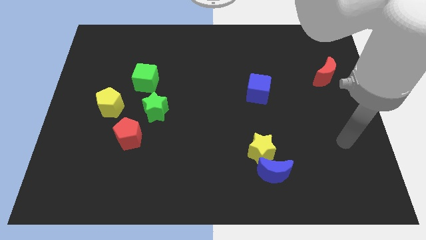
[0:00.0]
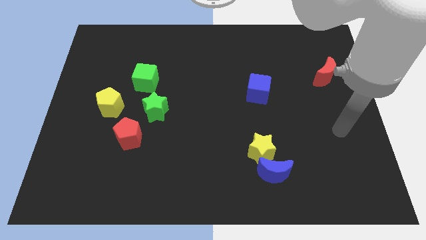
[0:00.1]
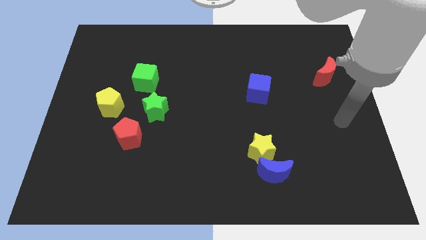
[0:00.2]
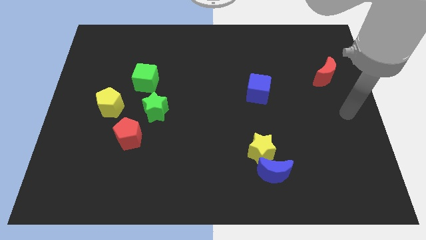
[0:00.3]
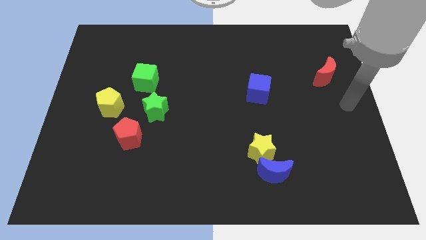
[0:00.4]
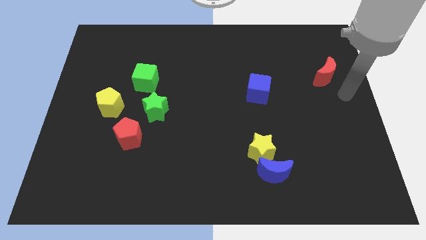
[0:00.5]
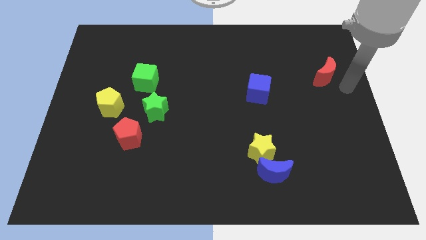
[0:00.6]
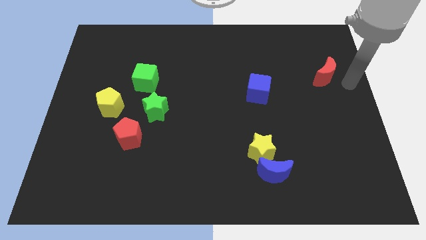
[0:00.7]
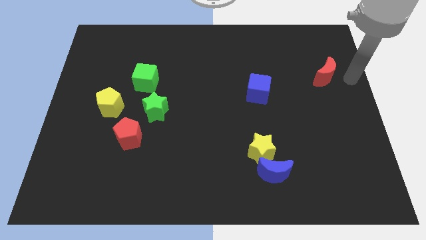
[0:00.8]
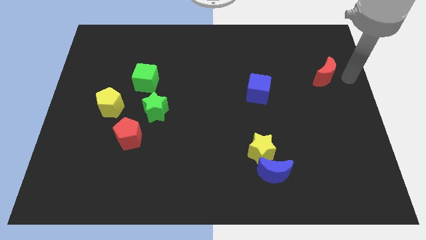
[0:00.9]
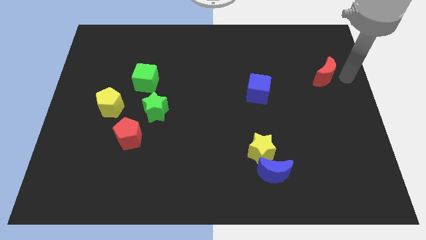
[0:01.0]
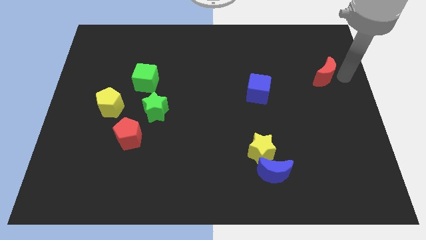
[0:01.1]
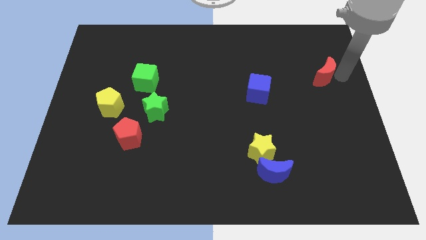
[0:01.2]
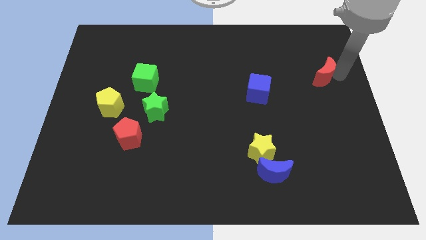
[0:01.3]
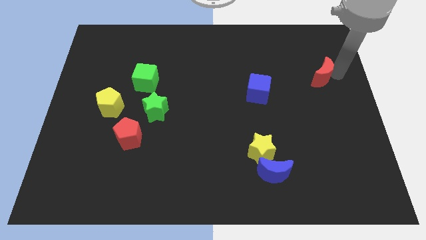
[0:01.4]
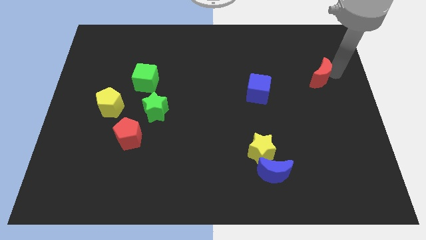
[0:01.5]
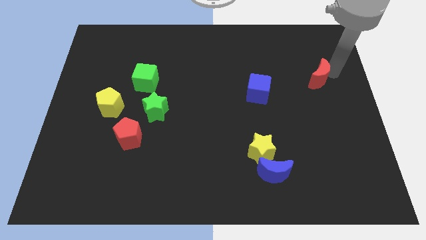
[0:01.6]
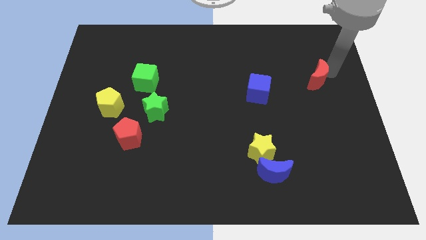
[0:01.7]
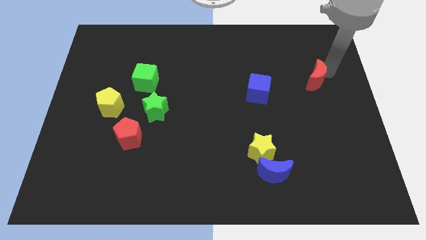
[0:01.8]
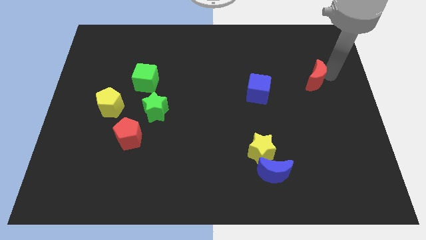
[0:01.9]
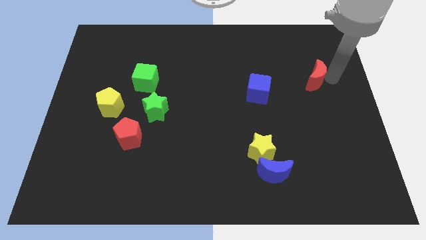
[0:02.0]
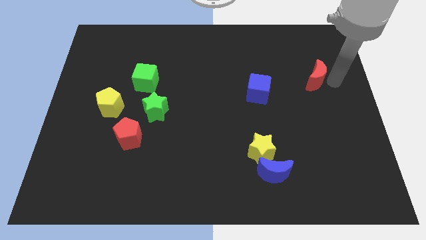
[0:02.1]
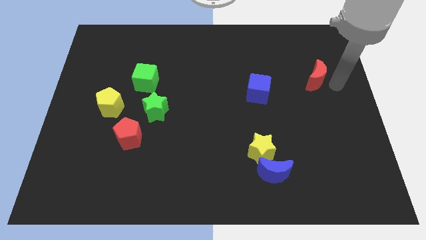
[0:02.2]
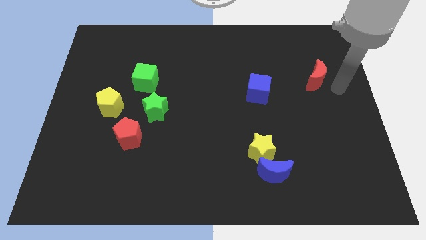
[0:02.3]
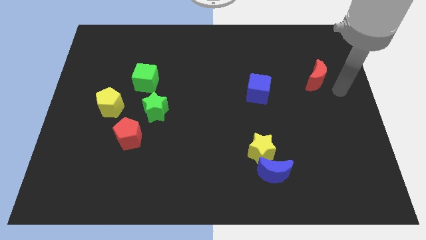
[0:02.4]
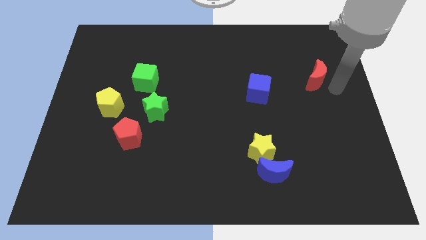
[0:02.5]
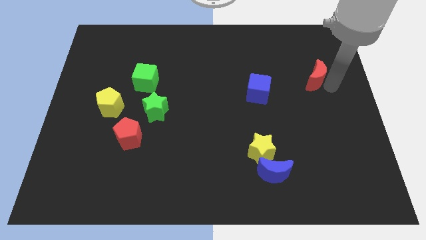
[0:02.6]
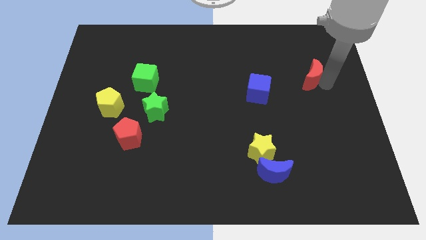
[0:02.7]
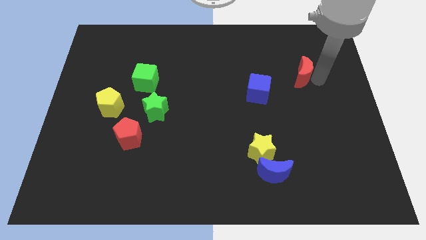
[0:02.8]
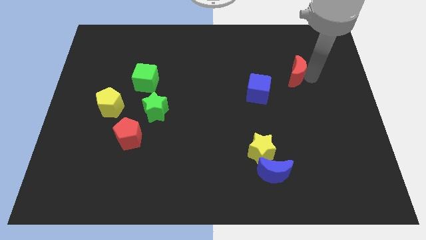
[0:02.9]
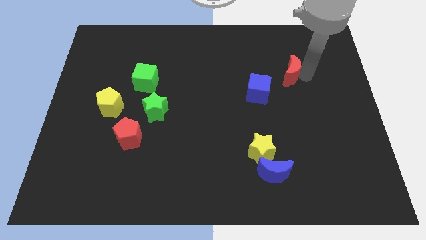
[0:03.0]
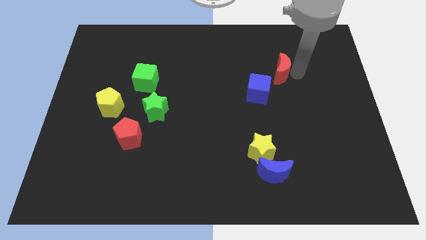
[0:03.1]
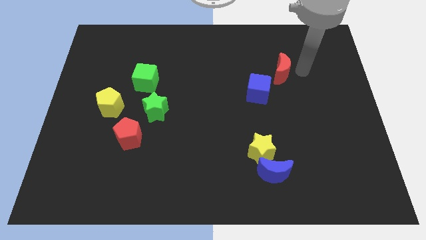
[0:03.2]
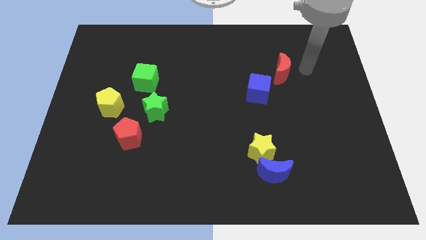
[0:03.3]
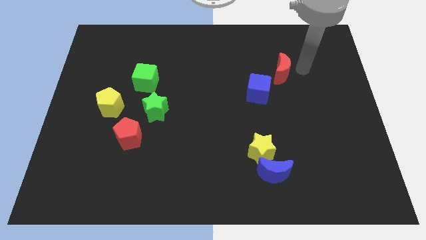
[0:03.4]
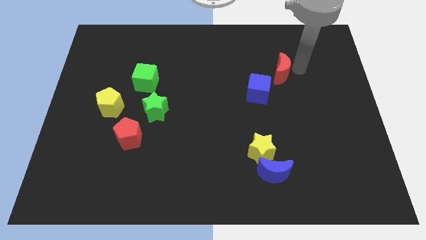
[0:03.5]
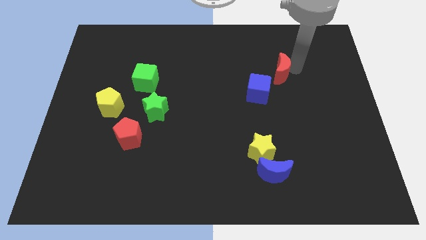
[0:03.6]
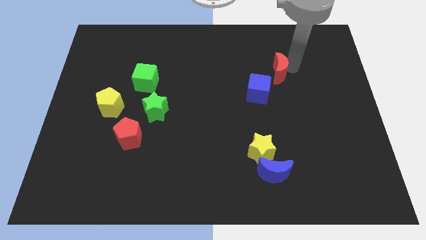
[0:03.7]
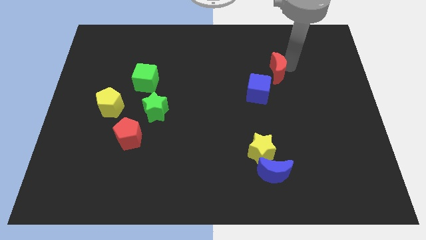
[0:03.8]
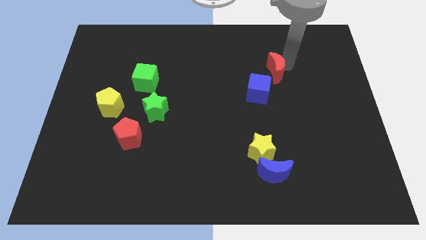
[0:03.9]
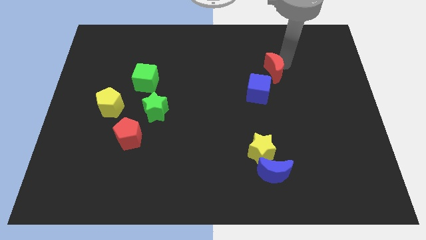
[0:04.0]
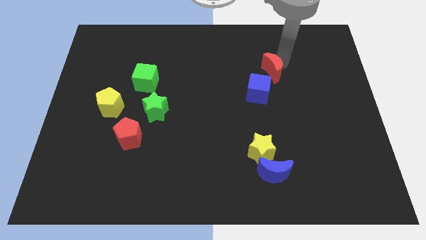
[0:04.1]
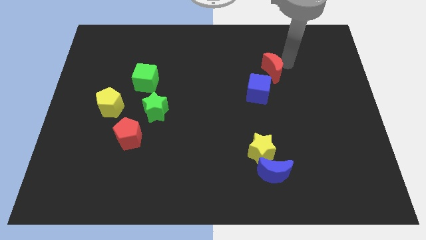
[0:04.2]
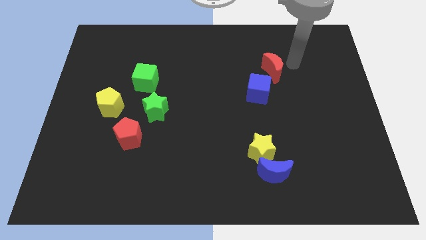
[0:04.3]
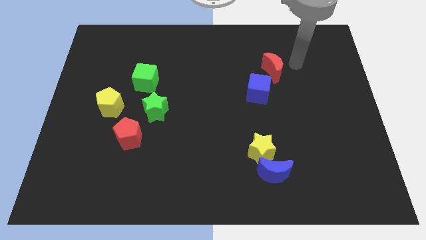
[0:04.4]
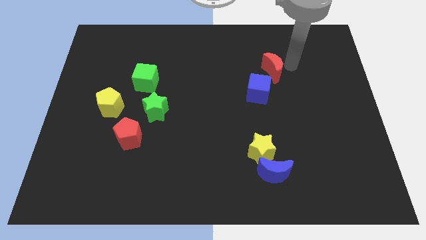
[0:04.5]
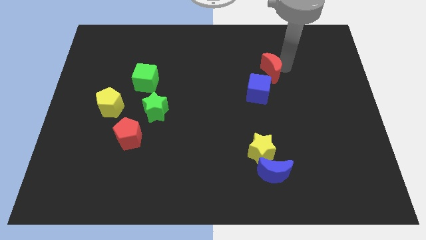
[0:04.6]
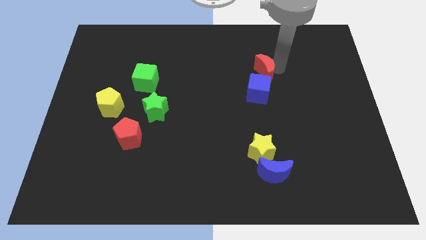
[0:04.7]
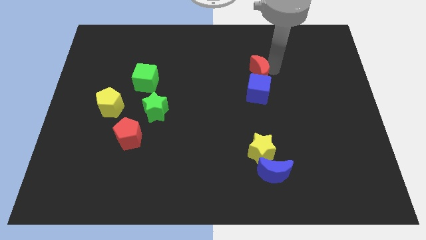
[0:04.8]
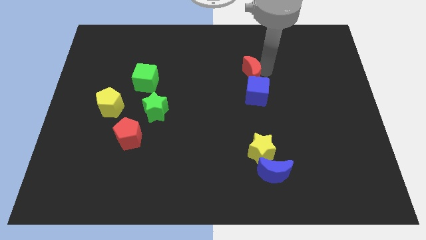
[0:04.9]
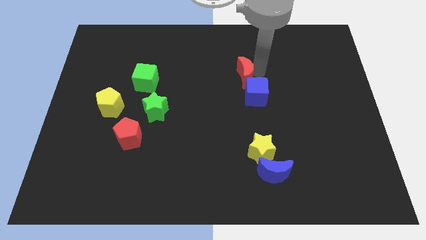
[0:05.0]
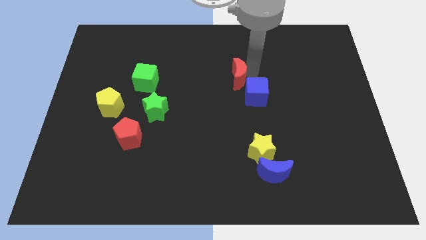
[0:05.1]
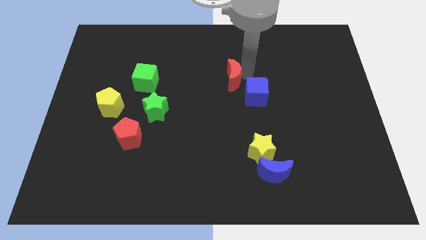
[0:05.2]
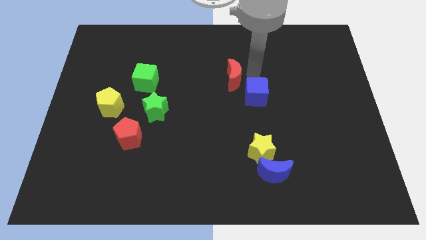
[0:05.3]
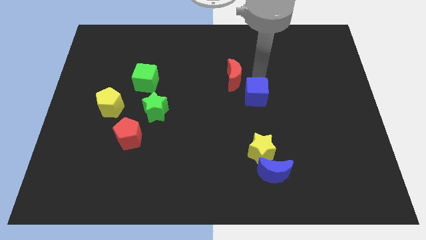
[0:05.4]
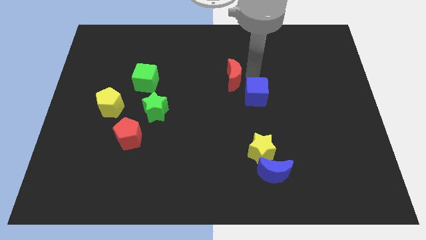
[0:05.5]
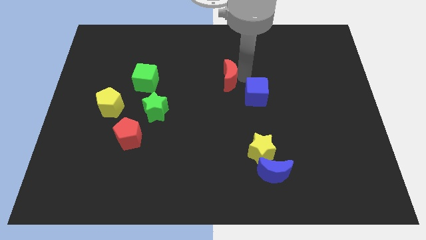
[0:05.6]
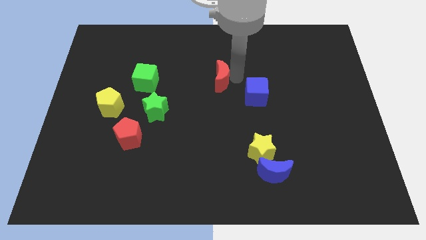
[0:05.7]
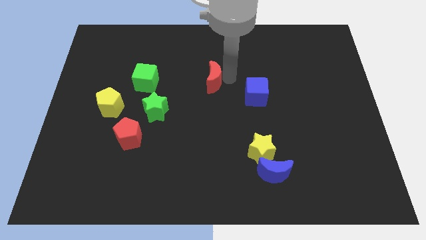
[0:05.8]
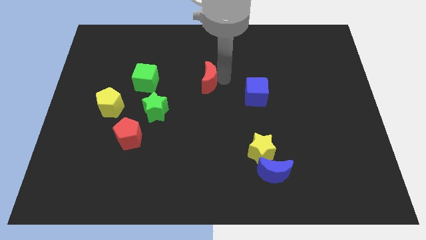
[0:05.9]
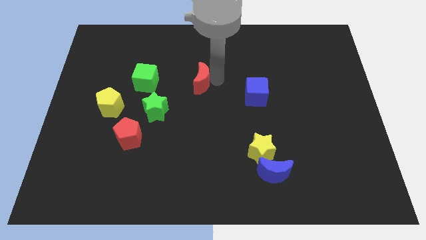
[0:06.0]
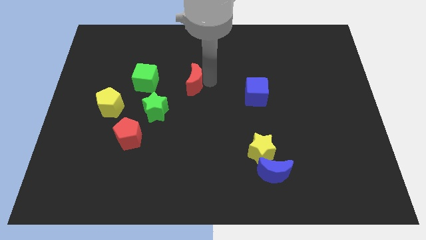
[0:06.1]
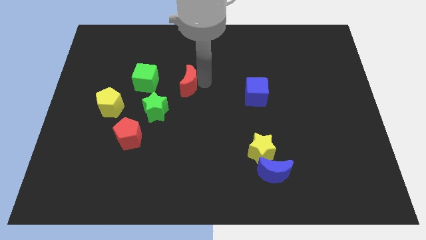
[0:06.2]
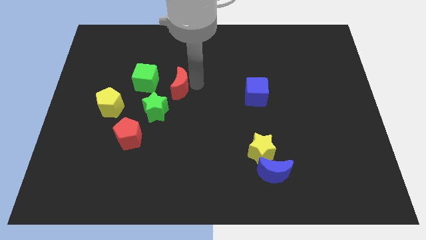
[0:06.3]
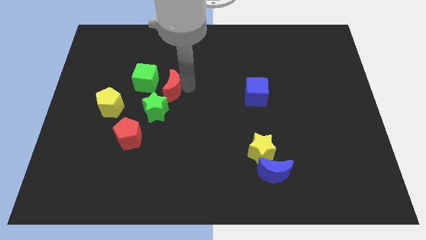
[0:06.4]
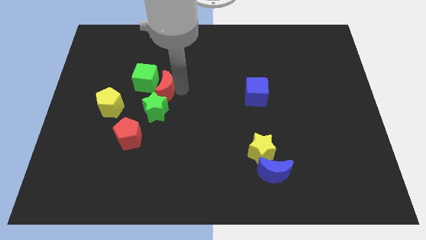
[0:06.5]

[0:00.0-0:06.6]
push the red moon to the green cube

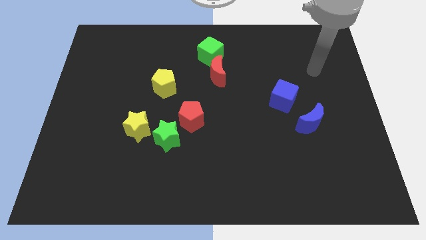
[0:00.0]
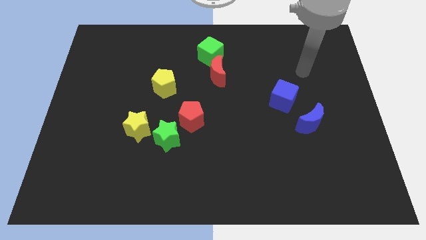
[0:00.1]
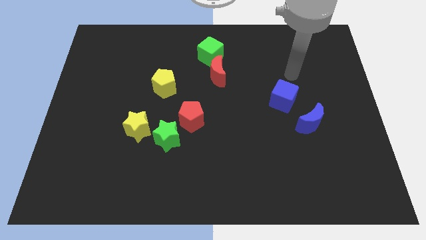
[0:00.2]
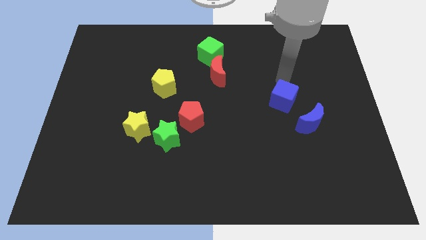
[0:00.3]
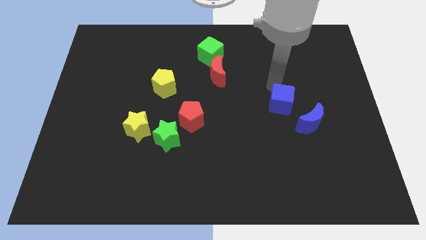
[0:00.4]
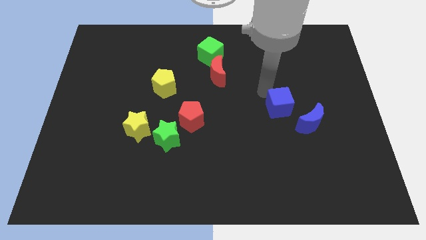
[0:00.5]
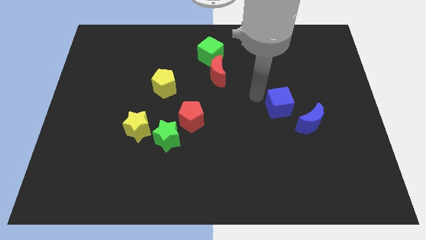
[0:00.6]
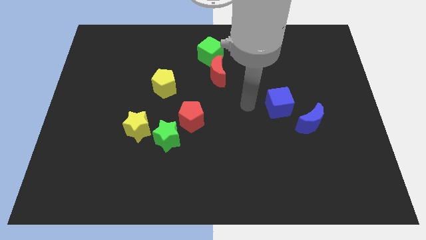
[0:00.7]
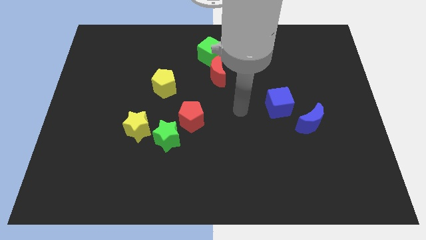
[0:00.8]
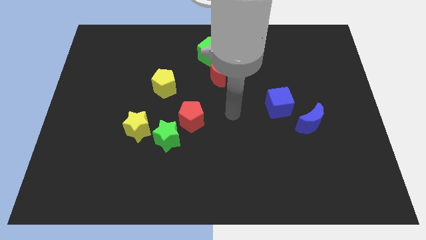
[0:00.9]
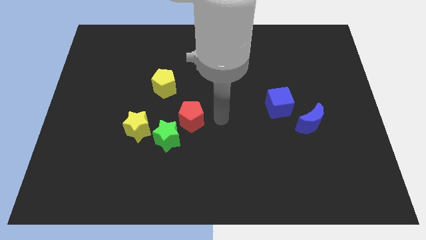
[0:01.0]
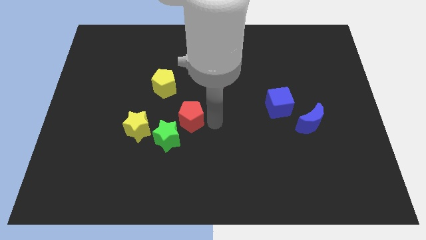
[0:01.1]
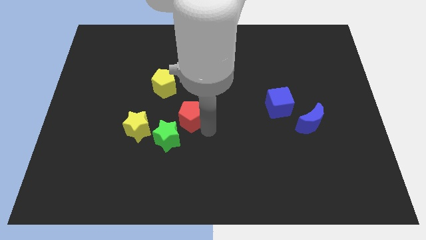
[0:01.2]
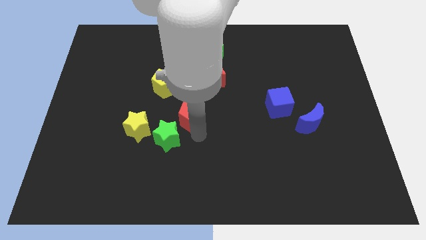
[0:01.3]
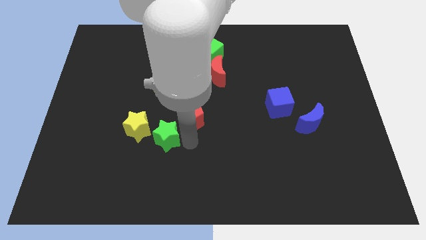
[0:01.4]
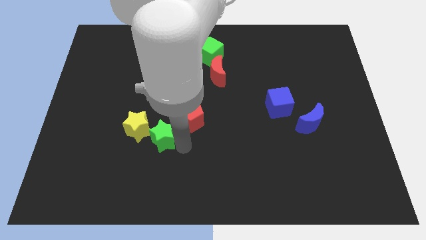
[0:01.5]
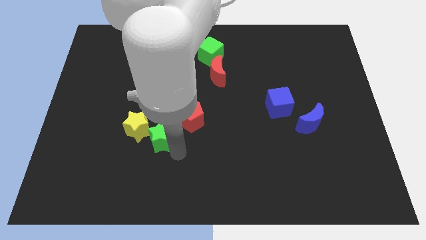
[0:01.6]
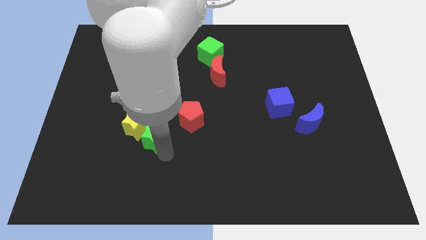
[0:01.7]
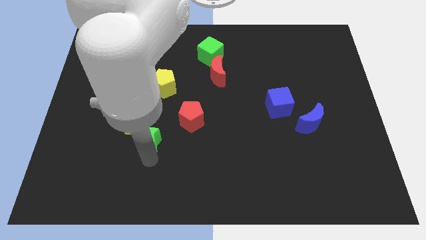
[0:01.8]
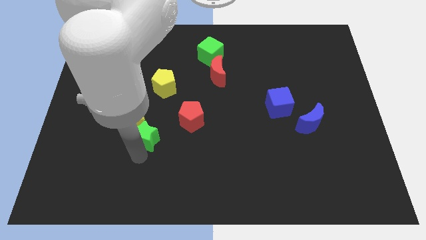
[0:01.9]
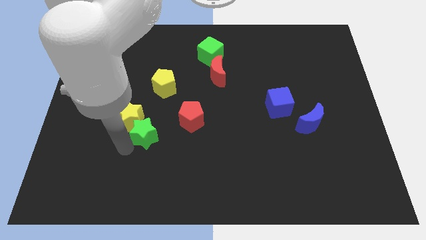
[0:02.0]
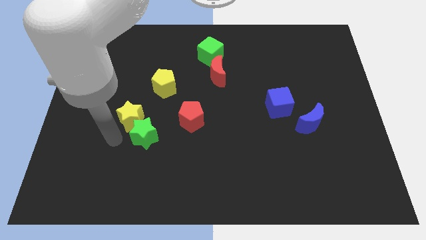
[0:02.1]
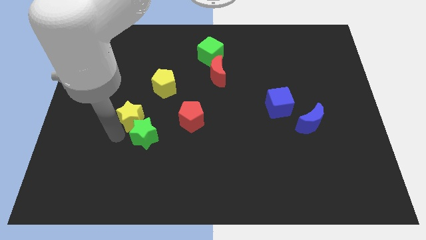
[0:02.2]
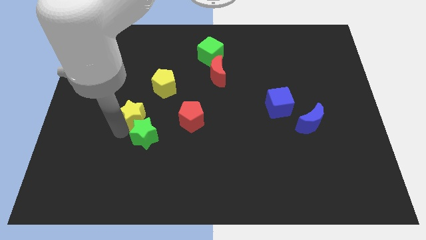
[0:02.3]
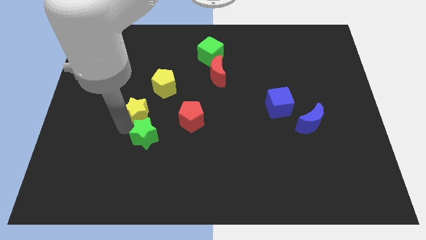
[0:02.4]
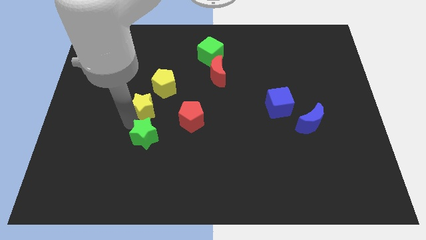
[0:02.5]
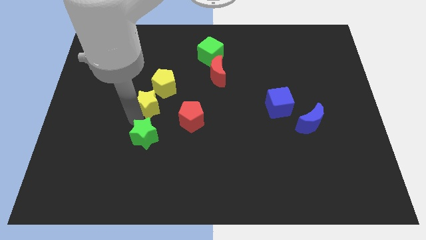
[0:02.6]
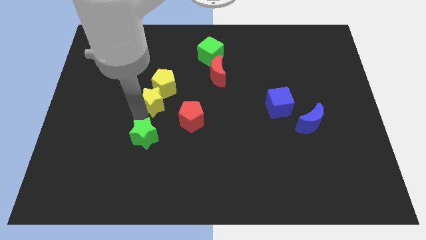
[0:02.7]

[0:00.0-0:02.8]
push the yellow star to the yellow pentagon
